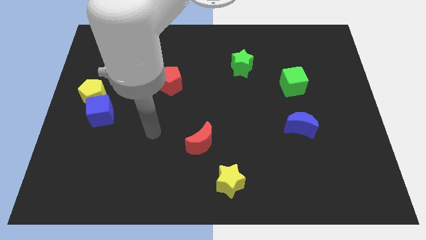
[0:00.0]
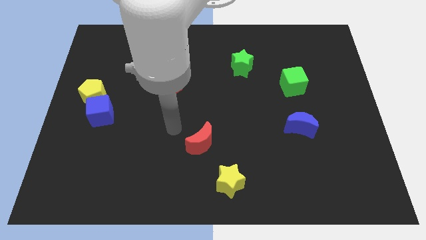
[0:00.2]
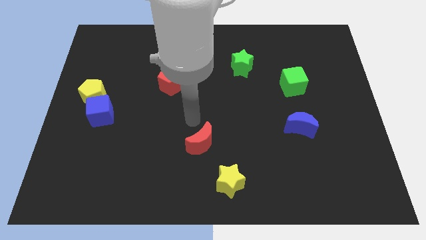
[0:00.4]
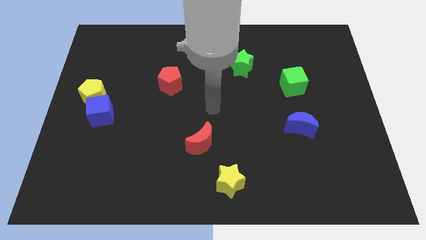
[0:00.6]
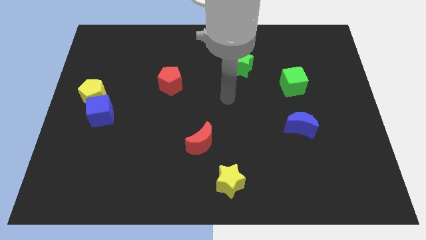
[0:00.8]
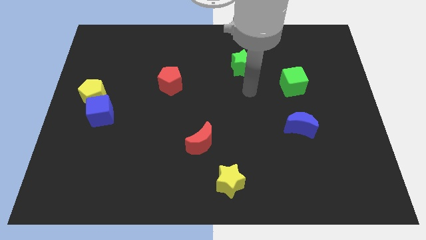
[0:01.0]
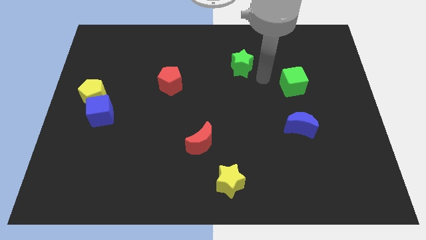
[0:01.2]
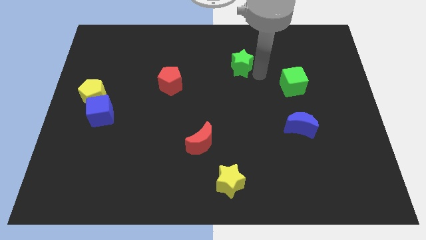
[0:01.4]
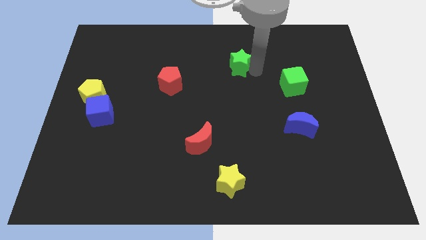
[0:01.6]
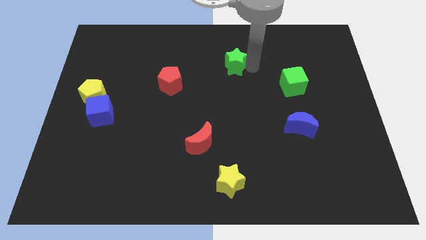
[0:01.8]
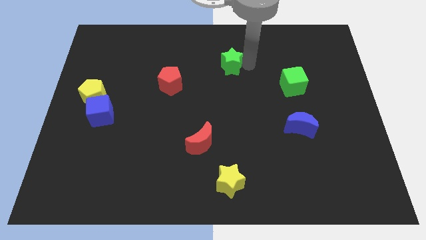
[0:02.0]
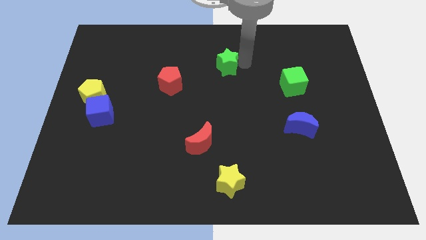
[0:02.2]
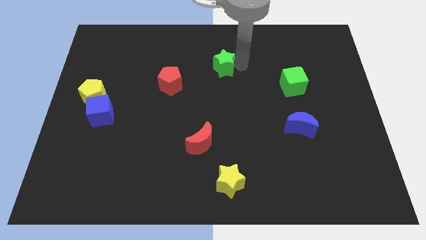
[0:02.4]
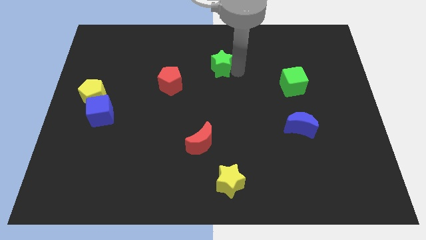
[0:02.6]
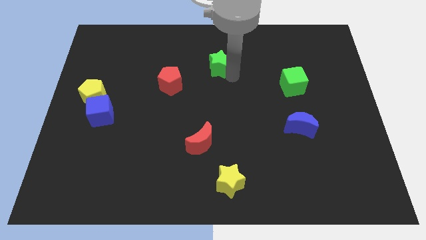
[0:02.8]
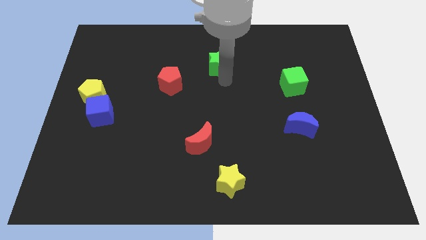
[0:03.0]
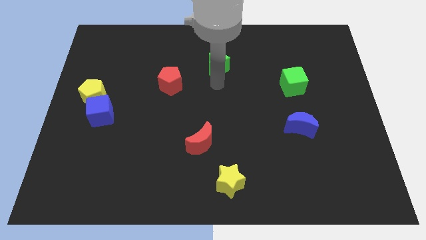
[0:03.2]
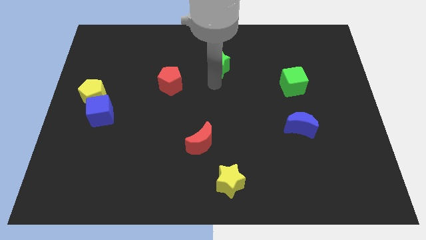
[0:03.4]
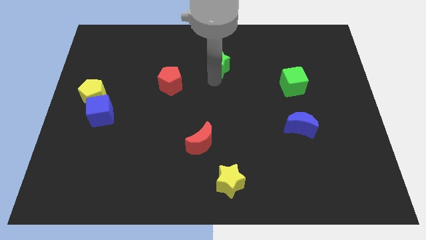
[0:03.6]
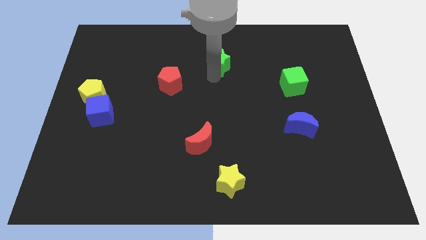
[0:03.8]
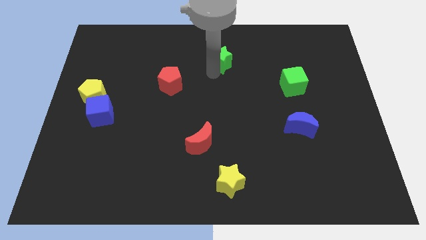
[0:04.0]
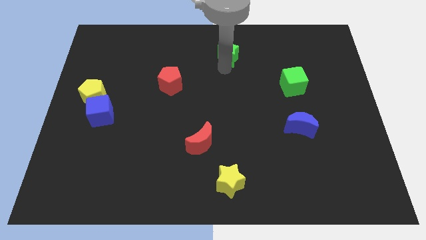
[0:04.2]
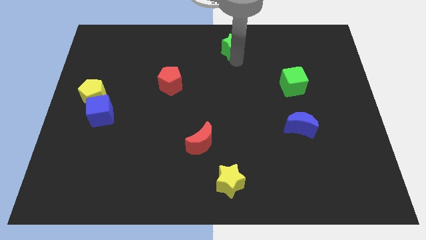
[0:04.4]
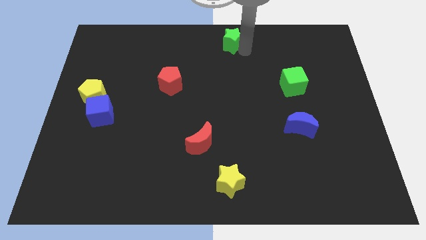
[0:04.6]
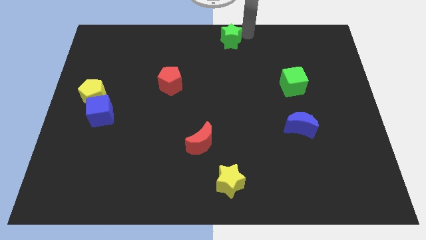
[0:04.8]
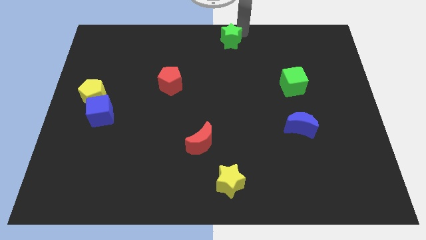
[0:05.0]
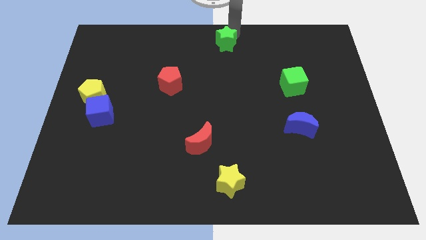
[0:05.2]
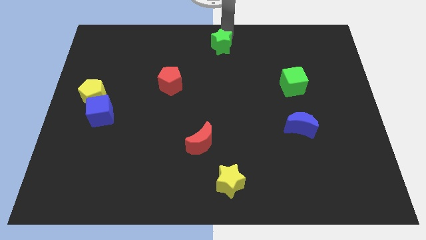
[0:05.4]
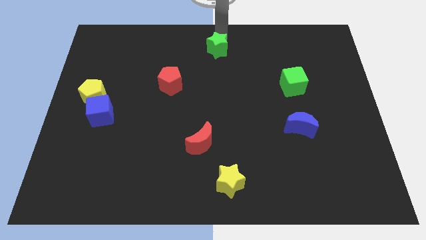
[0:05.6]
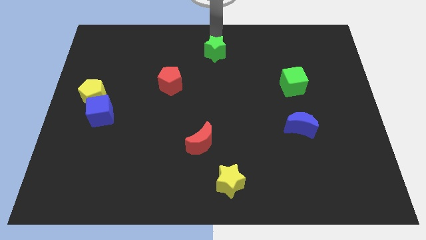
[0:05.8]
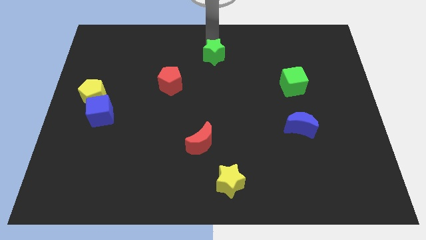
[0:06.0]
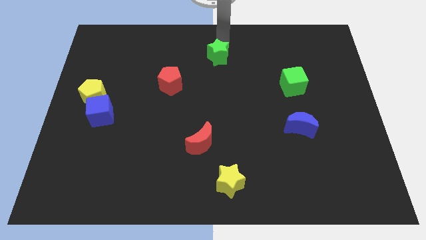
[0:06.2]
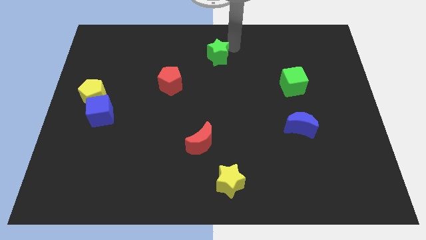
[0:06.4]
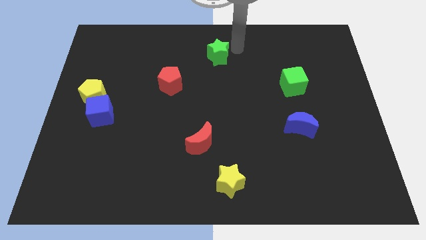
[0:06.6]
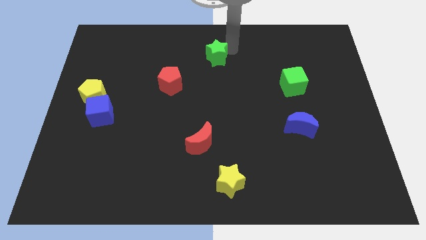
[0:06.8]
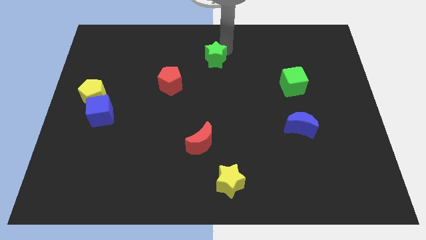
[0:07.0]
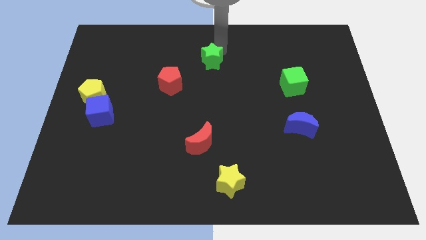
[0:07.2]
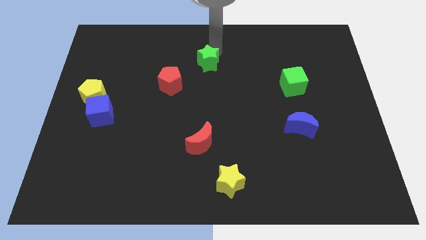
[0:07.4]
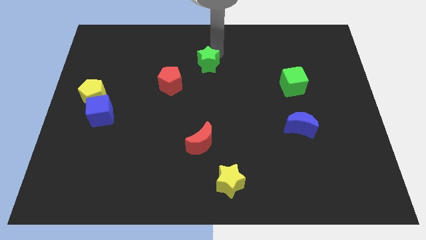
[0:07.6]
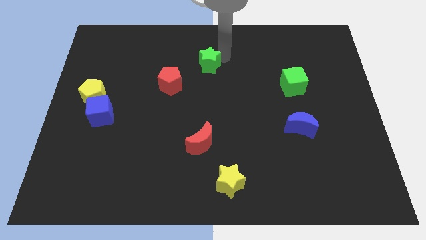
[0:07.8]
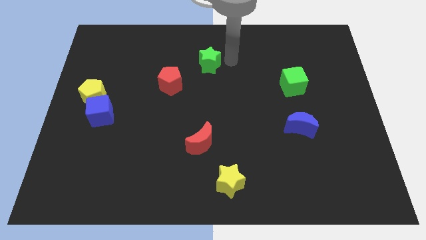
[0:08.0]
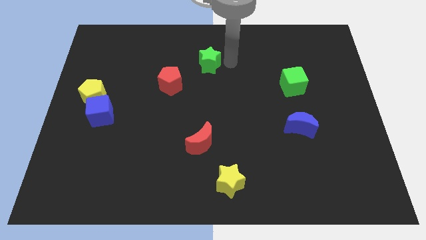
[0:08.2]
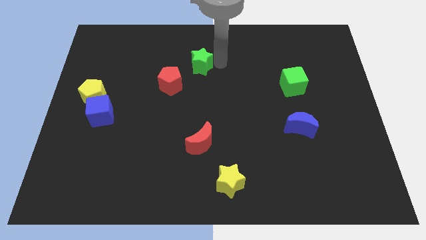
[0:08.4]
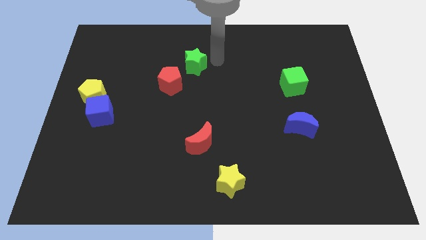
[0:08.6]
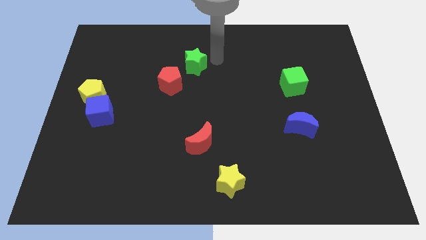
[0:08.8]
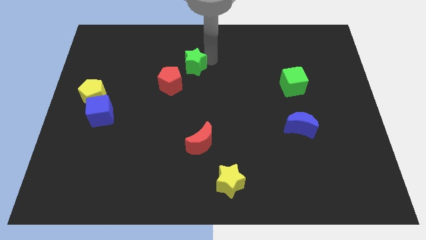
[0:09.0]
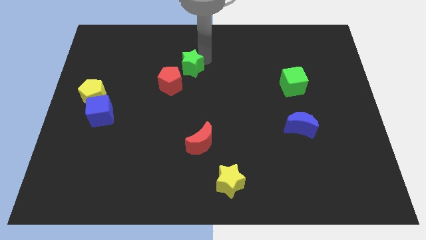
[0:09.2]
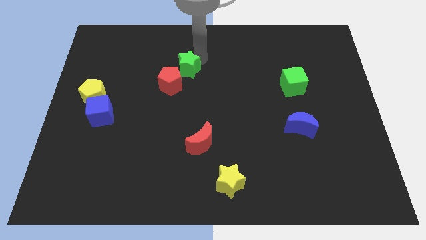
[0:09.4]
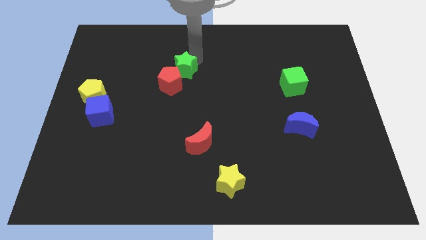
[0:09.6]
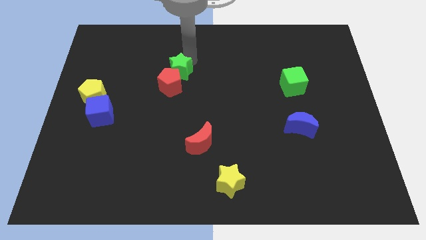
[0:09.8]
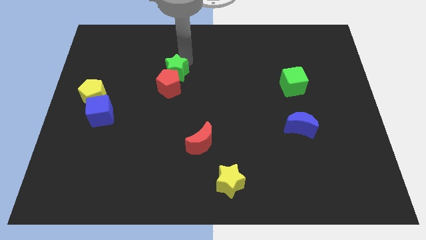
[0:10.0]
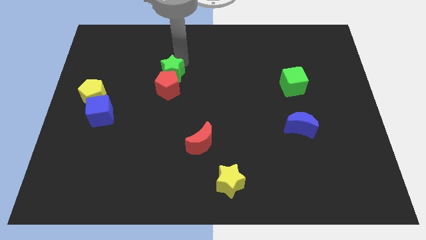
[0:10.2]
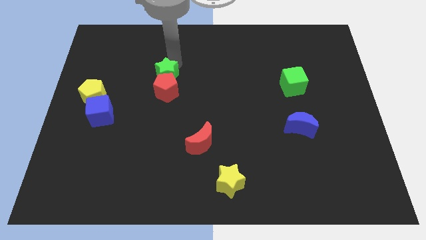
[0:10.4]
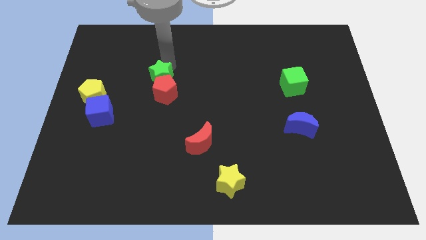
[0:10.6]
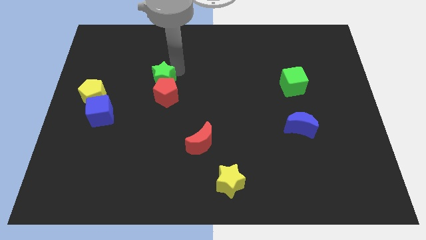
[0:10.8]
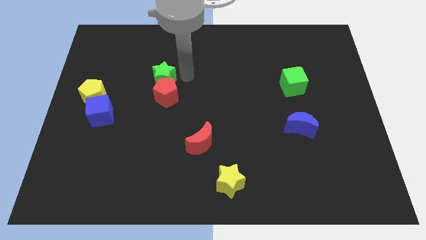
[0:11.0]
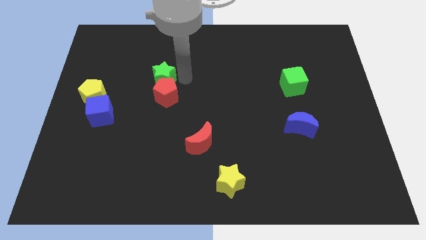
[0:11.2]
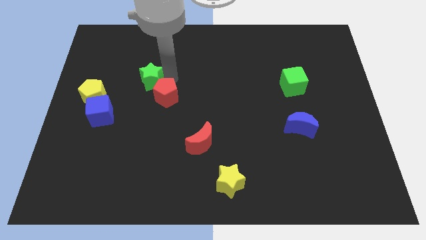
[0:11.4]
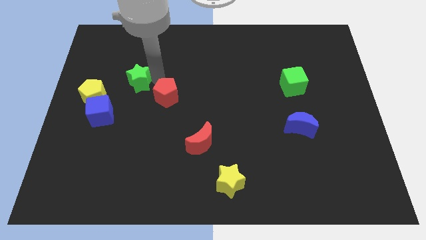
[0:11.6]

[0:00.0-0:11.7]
move the green star diagonally up and to the right of the yellow pentagon

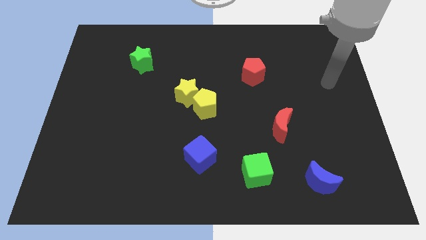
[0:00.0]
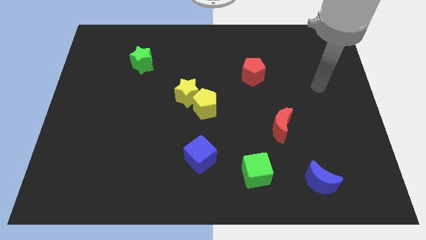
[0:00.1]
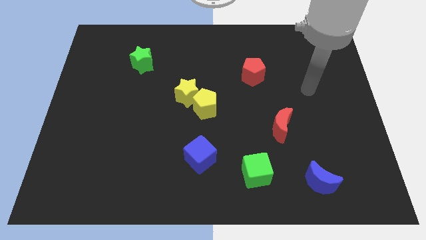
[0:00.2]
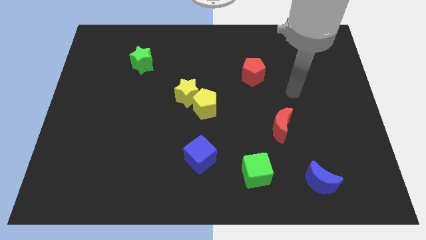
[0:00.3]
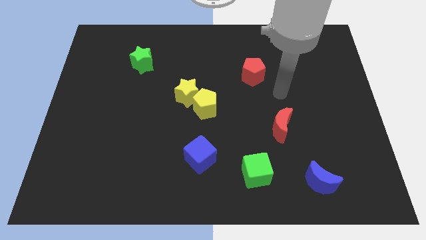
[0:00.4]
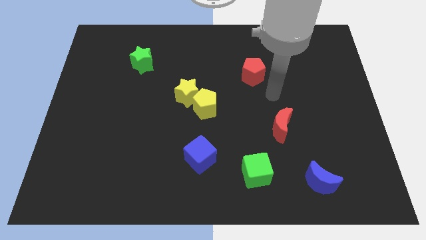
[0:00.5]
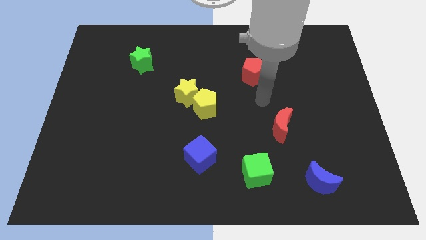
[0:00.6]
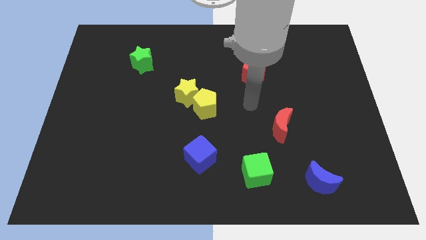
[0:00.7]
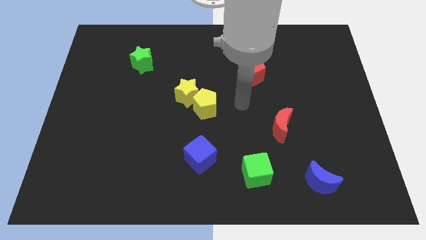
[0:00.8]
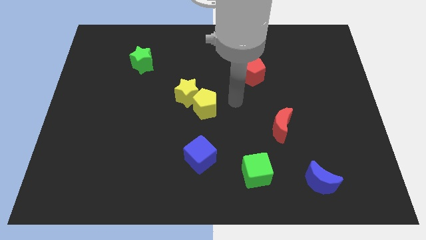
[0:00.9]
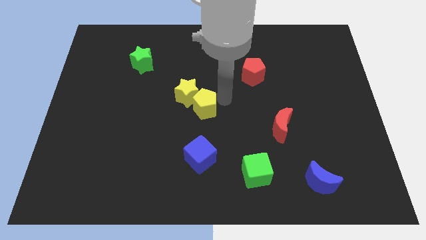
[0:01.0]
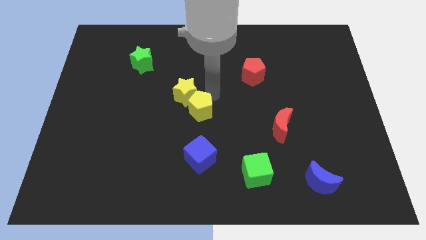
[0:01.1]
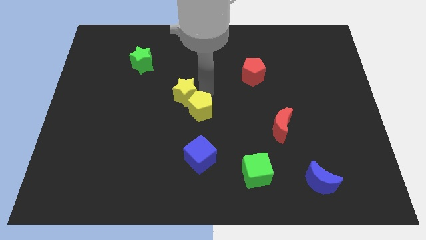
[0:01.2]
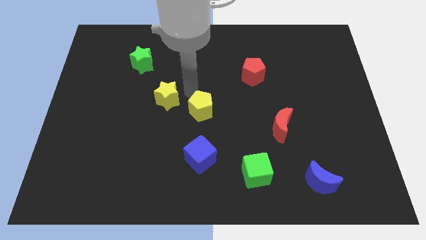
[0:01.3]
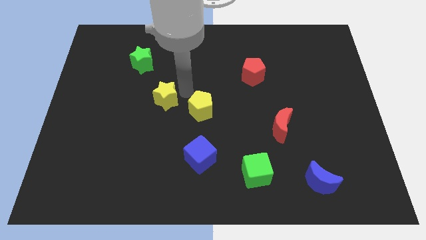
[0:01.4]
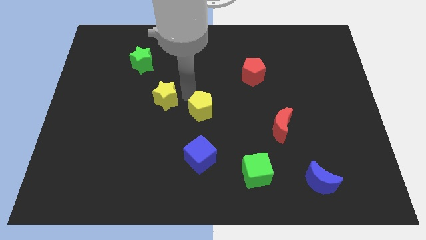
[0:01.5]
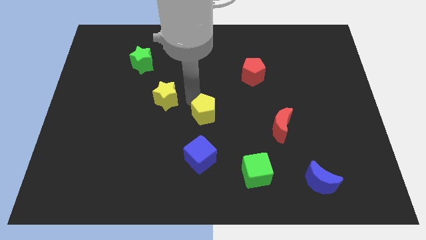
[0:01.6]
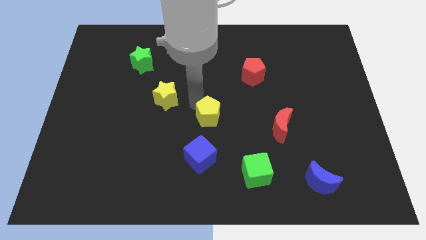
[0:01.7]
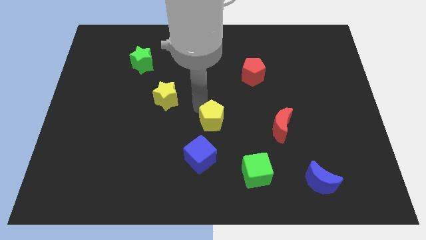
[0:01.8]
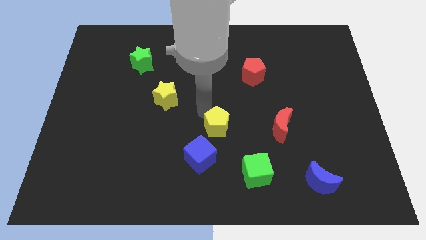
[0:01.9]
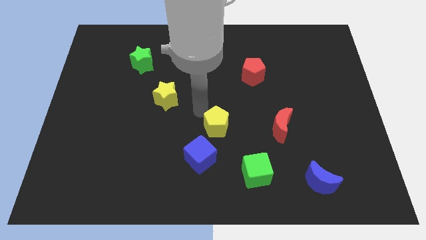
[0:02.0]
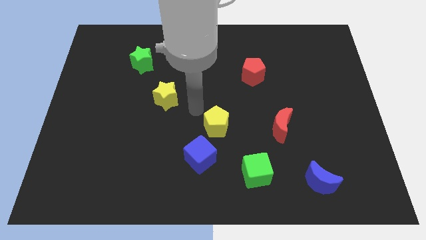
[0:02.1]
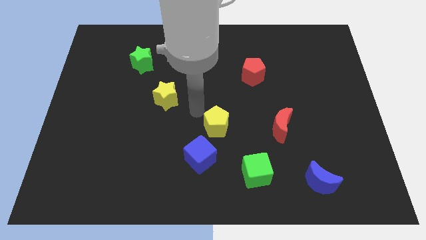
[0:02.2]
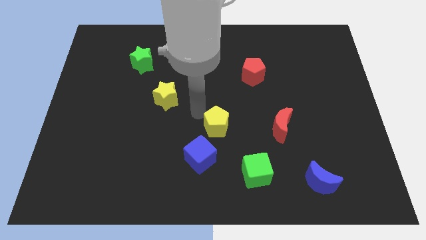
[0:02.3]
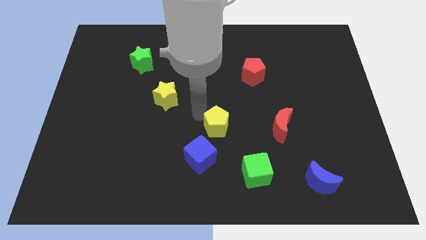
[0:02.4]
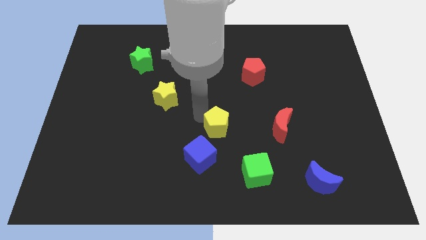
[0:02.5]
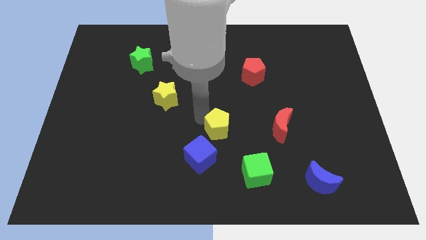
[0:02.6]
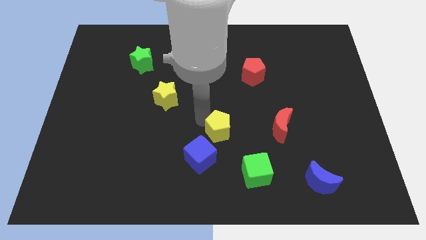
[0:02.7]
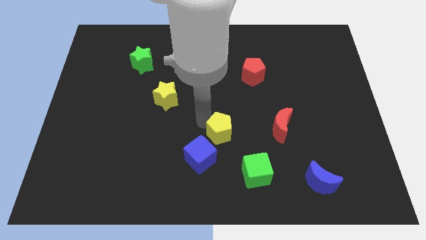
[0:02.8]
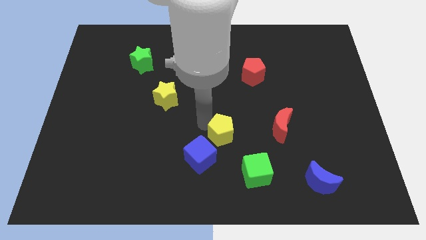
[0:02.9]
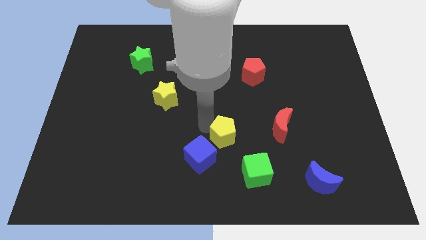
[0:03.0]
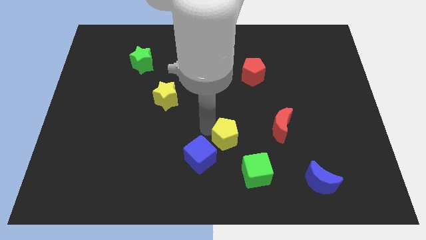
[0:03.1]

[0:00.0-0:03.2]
move the yellow pentagon right of the blue cube
